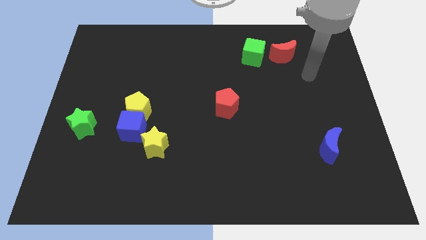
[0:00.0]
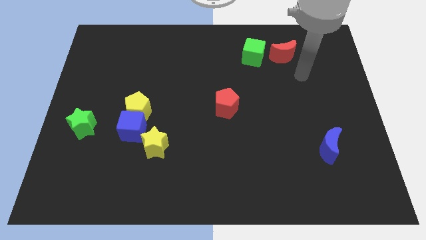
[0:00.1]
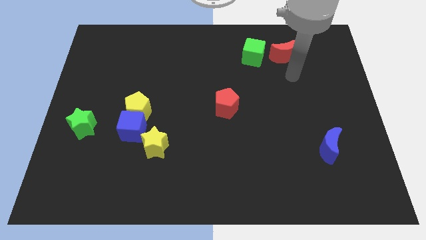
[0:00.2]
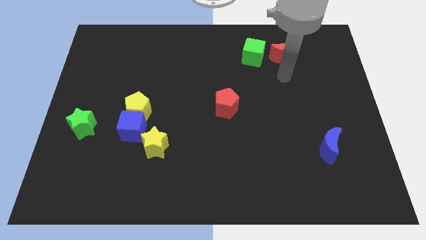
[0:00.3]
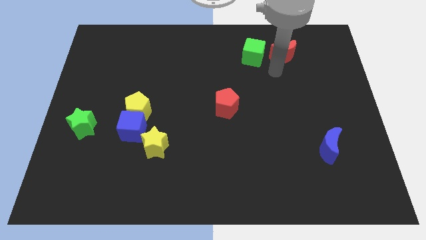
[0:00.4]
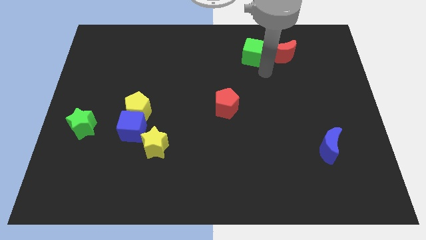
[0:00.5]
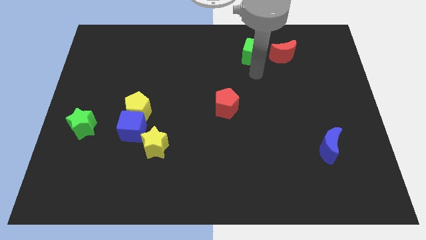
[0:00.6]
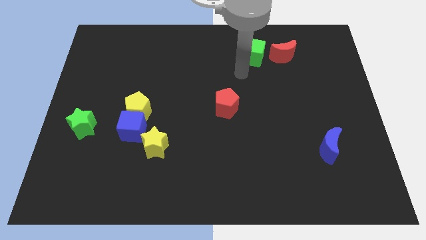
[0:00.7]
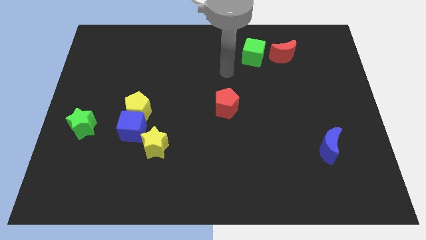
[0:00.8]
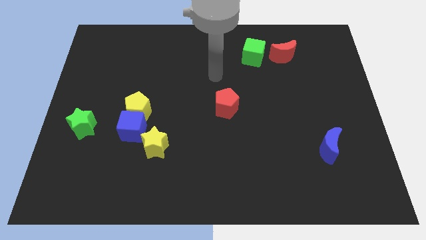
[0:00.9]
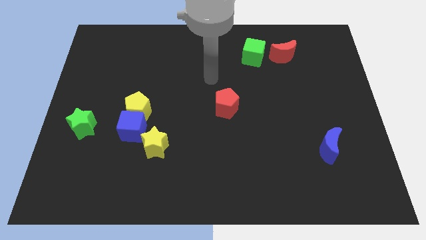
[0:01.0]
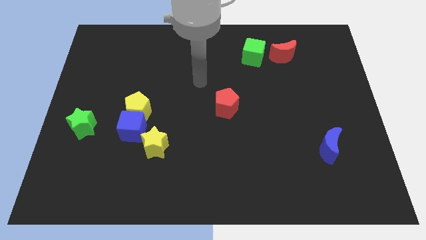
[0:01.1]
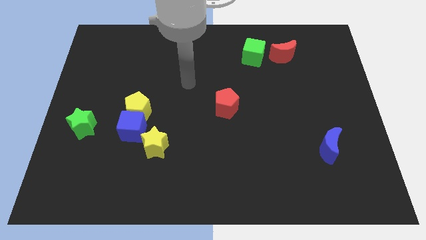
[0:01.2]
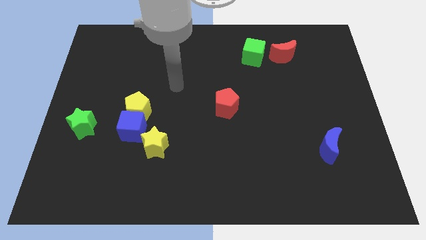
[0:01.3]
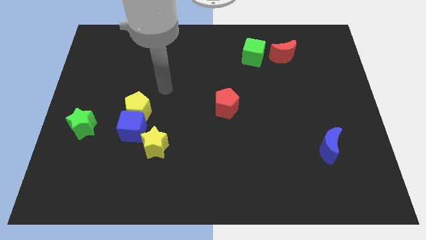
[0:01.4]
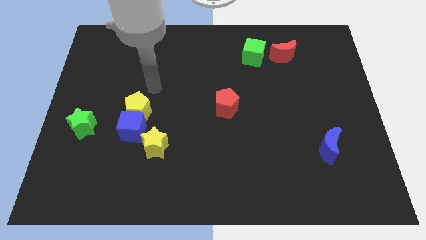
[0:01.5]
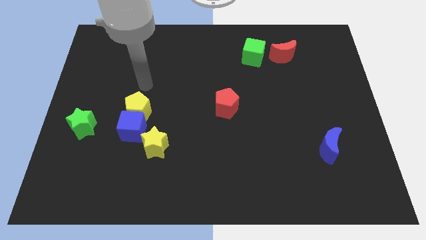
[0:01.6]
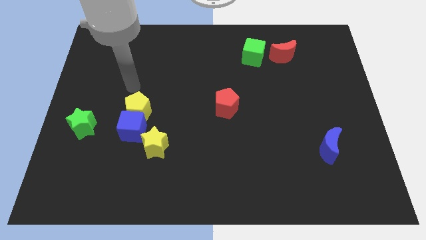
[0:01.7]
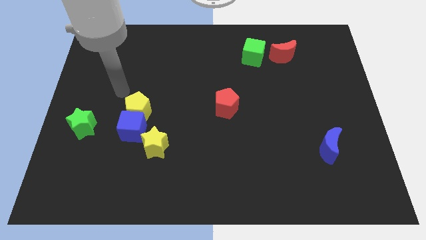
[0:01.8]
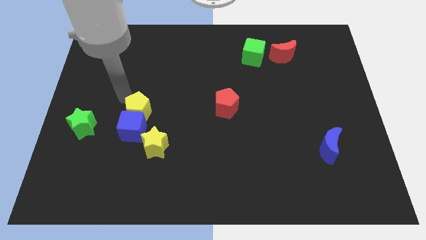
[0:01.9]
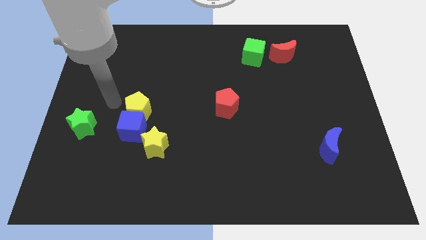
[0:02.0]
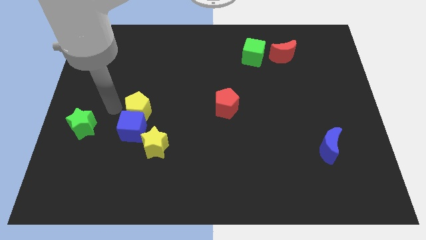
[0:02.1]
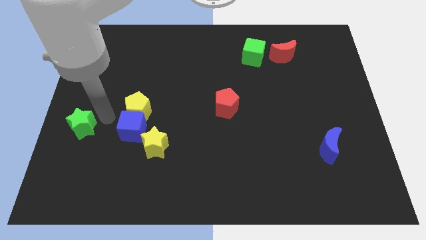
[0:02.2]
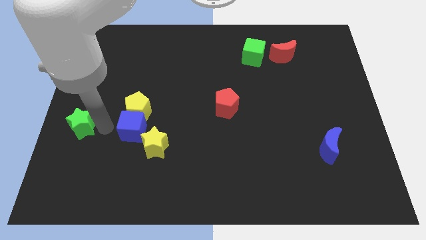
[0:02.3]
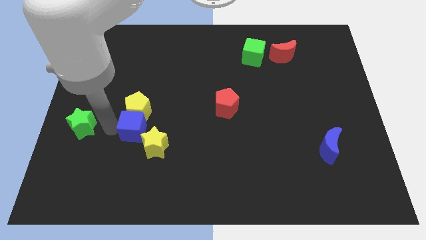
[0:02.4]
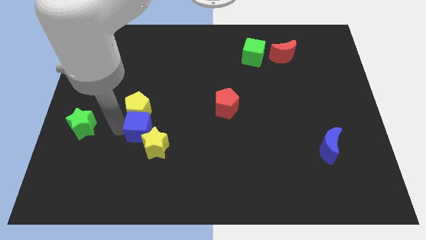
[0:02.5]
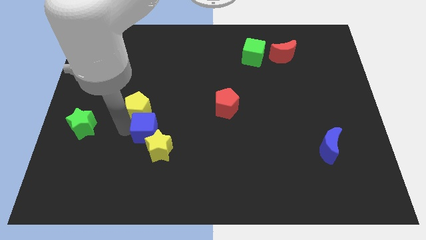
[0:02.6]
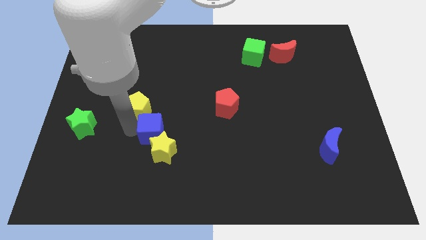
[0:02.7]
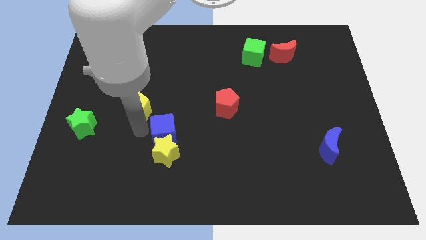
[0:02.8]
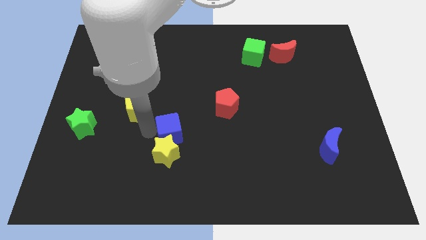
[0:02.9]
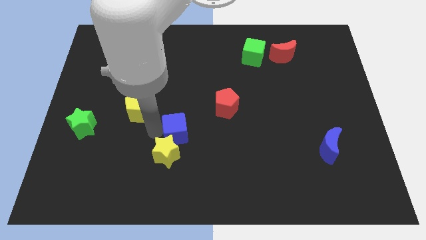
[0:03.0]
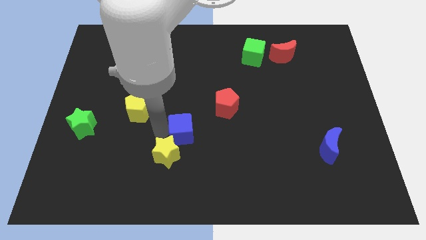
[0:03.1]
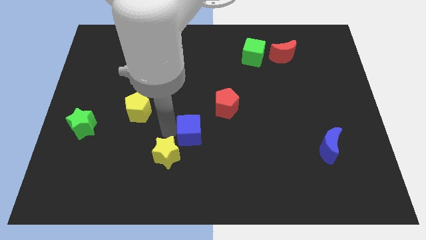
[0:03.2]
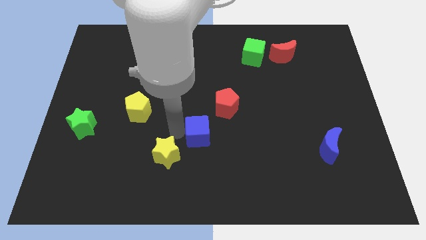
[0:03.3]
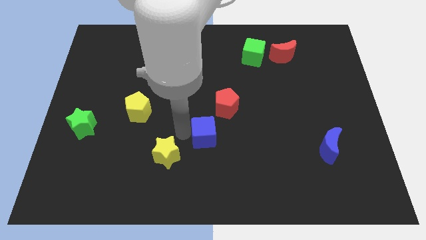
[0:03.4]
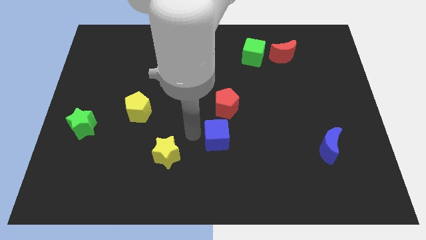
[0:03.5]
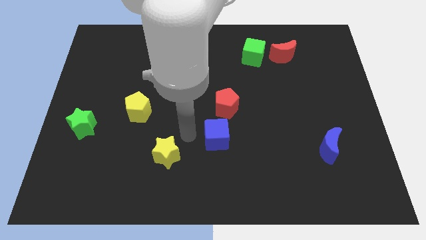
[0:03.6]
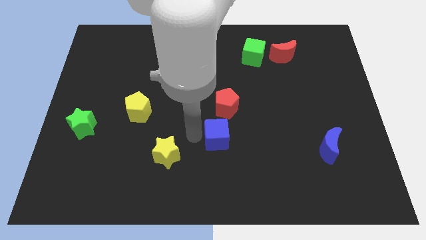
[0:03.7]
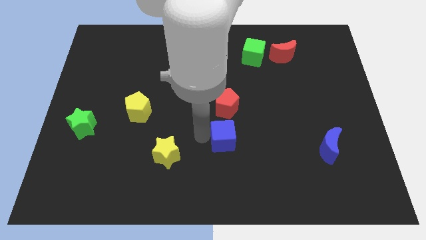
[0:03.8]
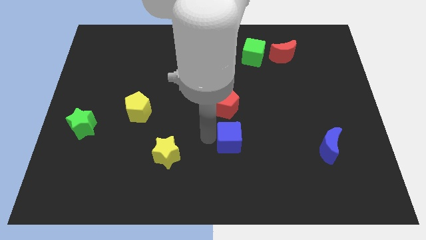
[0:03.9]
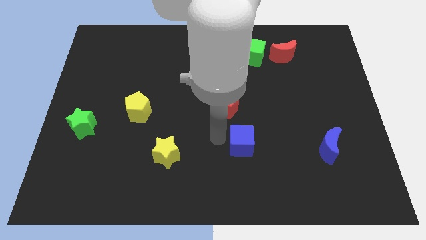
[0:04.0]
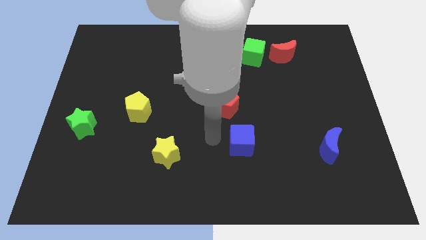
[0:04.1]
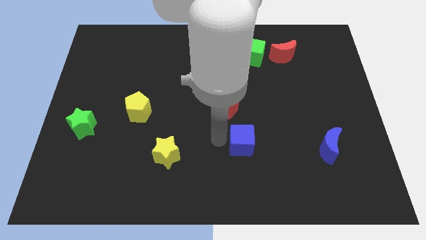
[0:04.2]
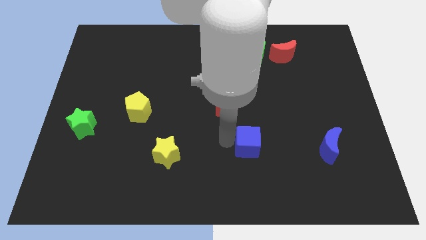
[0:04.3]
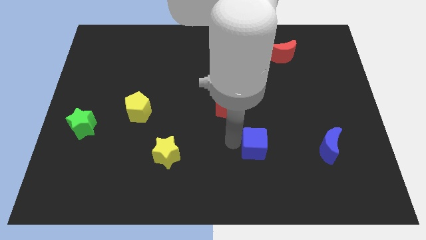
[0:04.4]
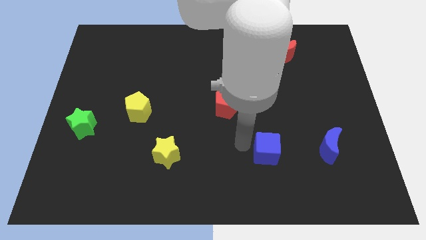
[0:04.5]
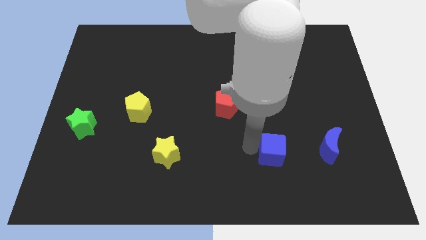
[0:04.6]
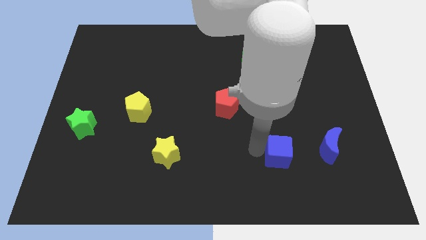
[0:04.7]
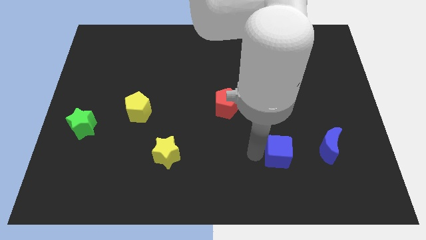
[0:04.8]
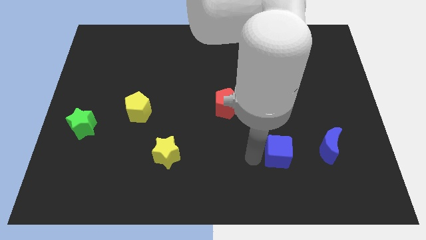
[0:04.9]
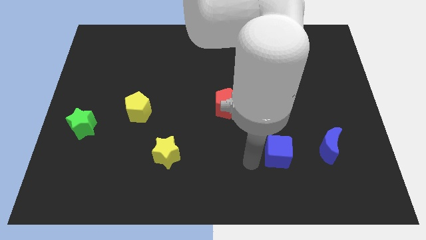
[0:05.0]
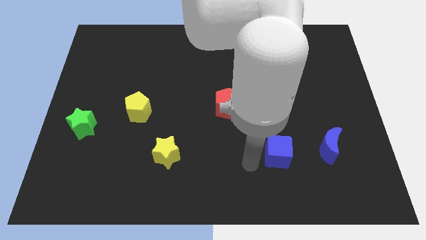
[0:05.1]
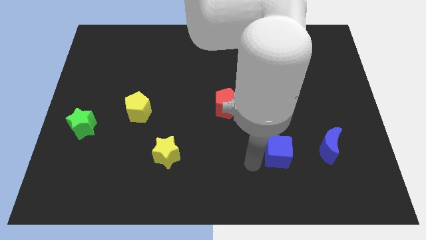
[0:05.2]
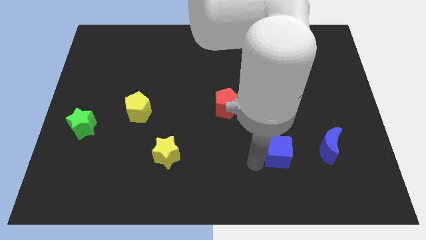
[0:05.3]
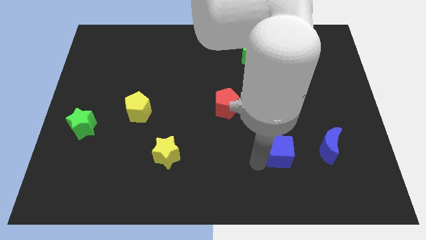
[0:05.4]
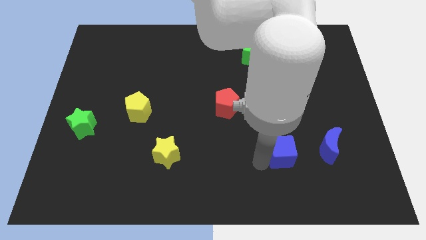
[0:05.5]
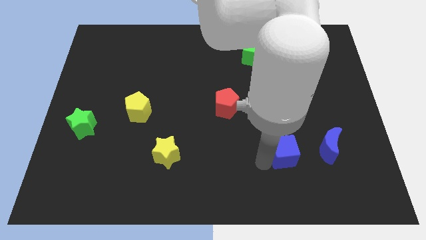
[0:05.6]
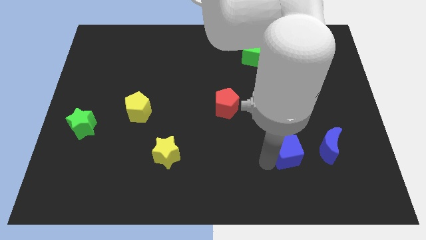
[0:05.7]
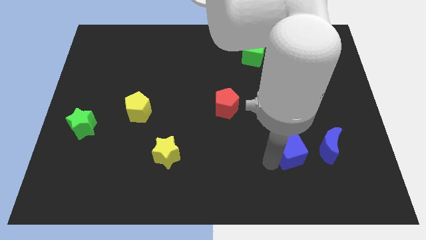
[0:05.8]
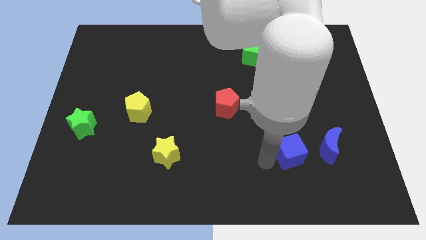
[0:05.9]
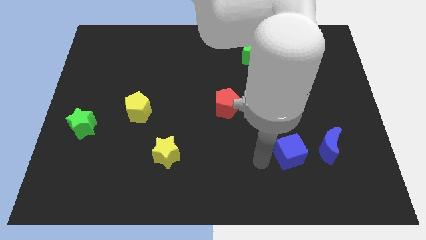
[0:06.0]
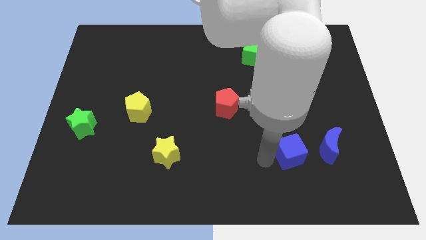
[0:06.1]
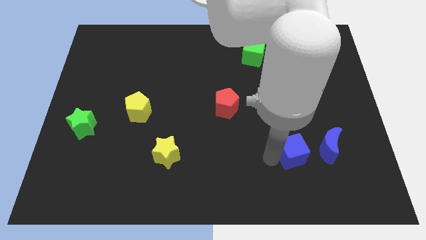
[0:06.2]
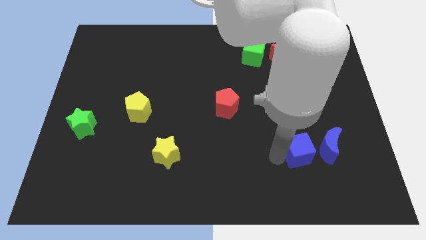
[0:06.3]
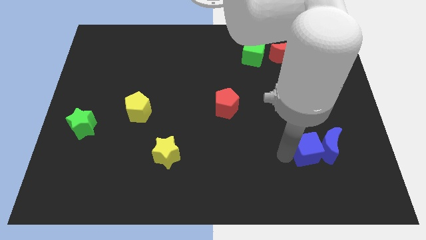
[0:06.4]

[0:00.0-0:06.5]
move the blue cube close to the blue moon
